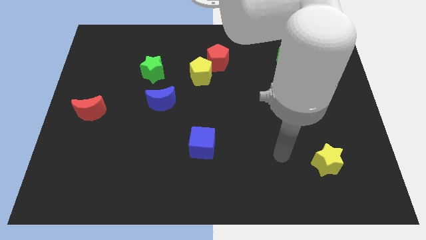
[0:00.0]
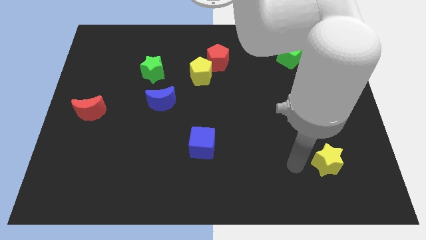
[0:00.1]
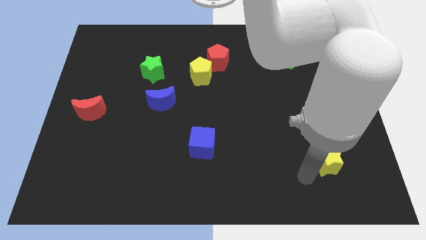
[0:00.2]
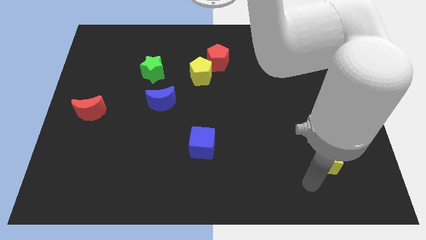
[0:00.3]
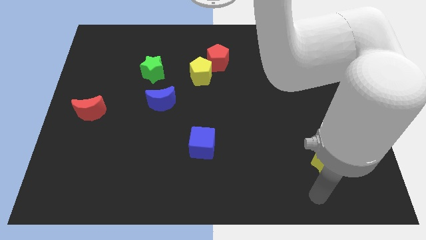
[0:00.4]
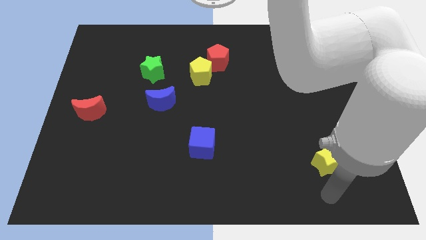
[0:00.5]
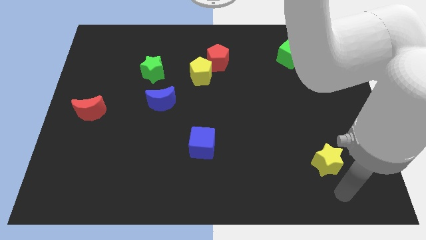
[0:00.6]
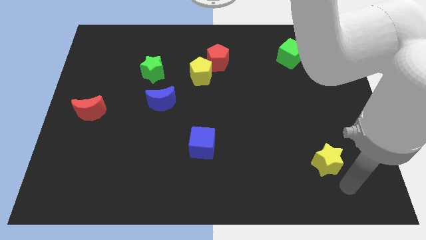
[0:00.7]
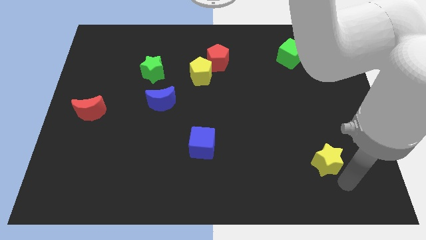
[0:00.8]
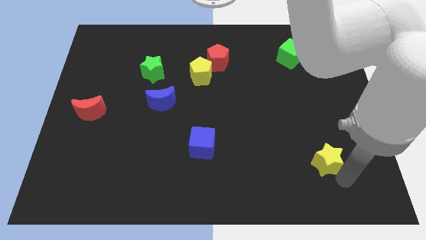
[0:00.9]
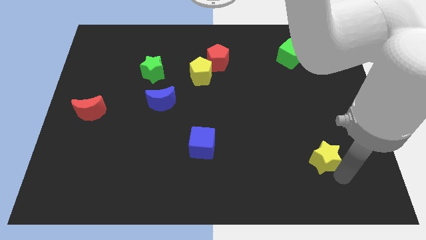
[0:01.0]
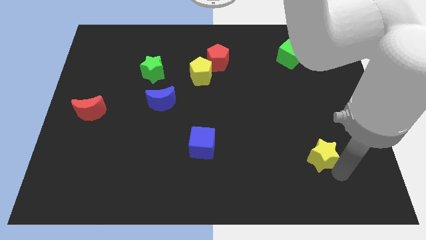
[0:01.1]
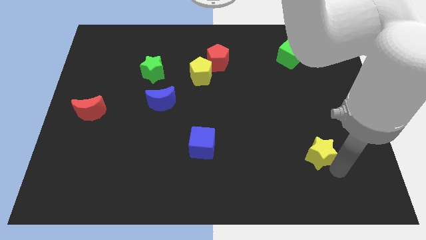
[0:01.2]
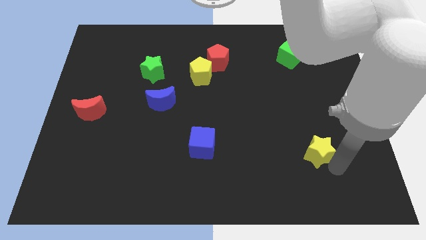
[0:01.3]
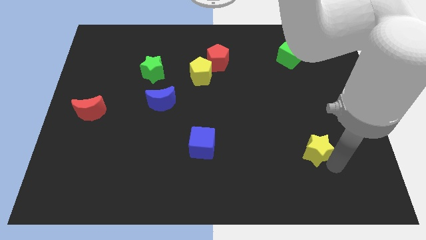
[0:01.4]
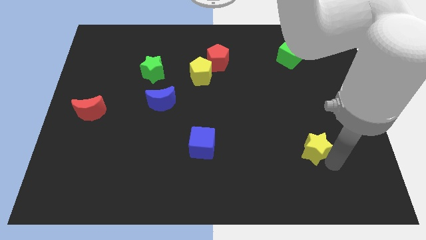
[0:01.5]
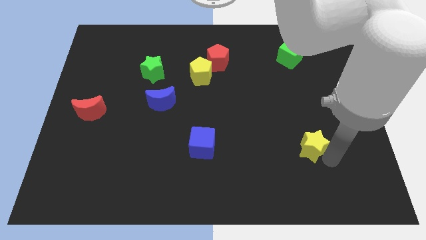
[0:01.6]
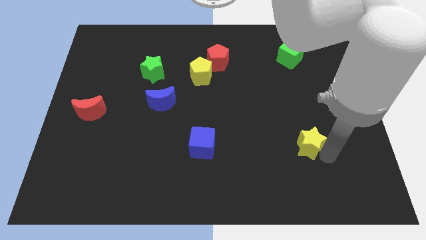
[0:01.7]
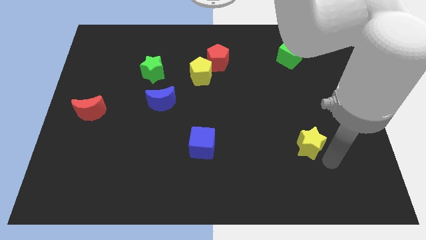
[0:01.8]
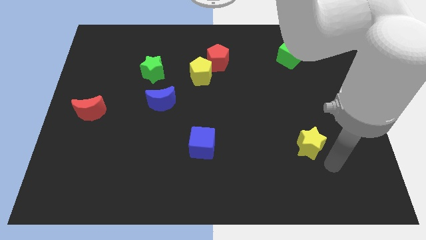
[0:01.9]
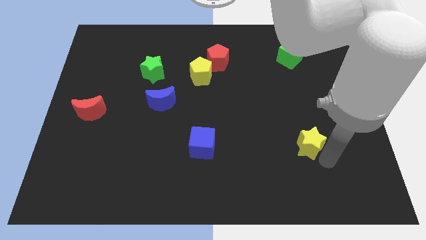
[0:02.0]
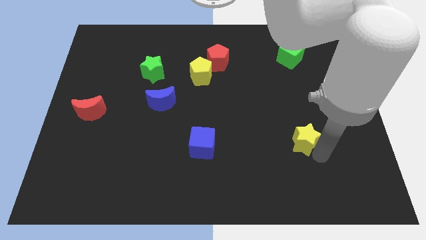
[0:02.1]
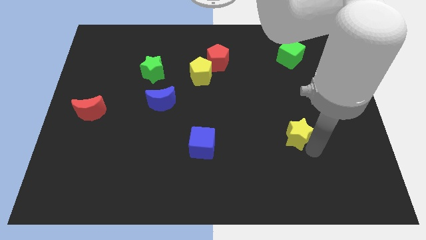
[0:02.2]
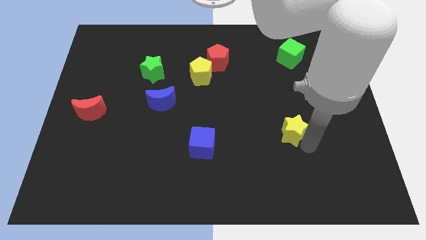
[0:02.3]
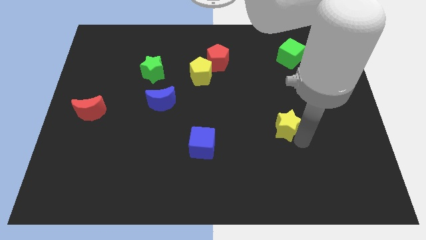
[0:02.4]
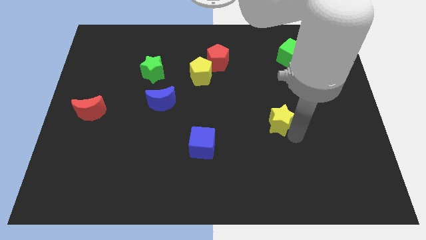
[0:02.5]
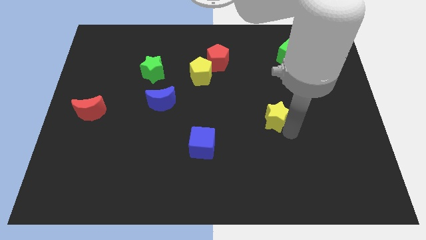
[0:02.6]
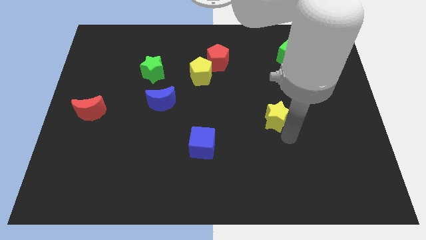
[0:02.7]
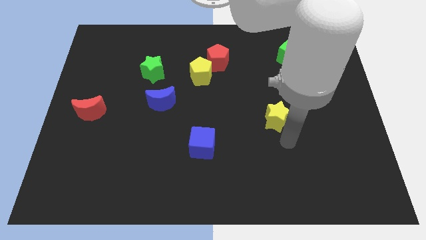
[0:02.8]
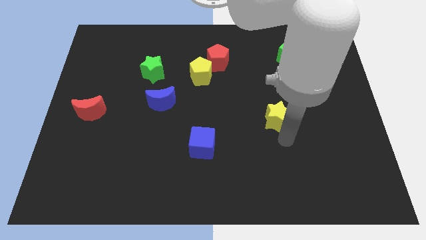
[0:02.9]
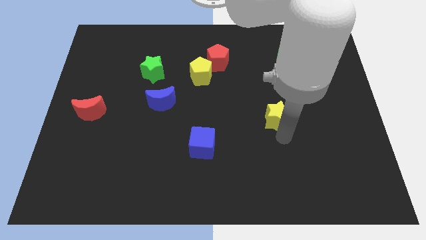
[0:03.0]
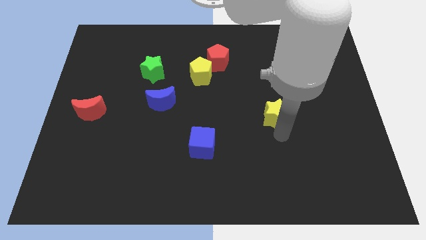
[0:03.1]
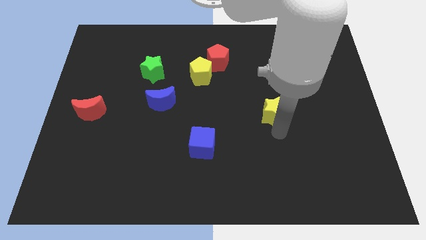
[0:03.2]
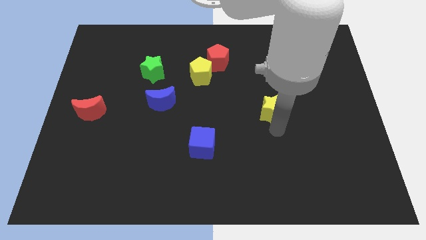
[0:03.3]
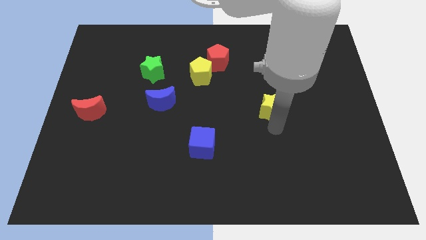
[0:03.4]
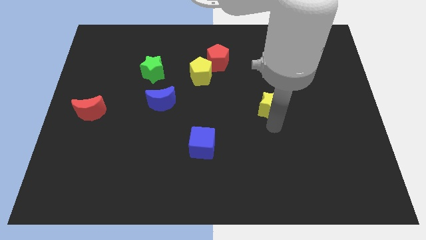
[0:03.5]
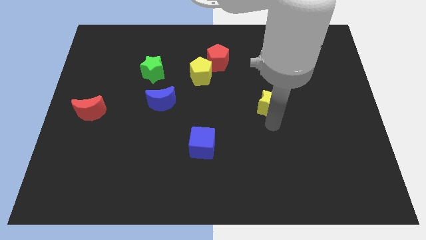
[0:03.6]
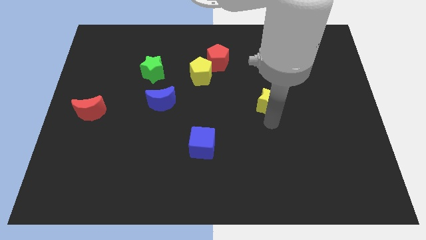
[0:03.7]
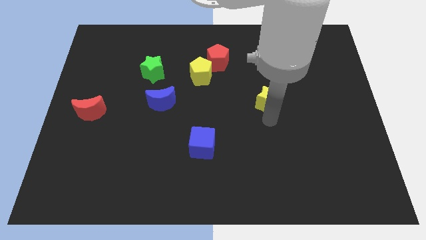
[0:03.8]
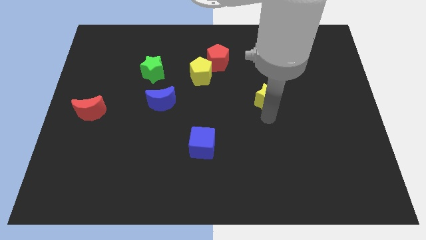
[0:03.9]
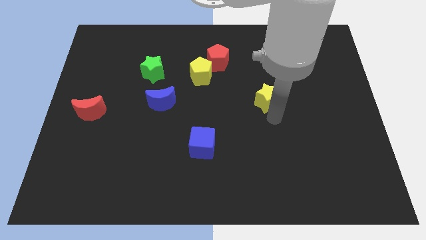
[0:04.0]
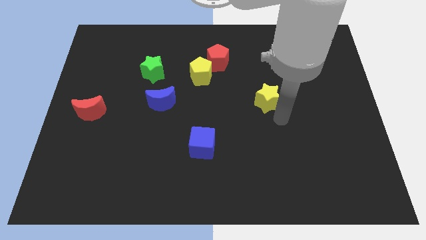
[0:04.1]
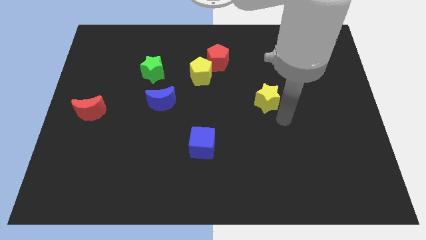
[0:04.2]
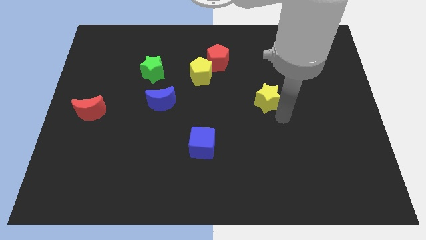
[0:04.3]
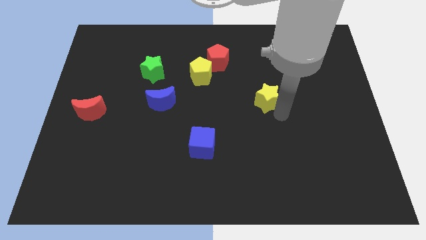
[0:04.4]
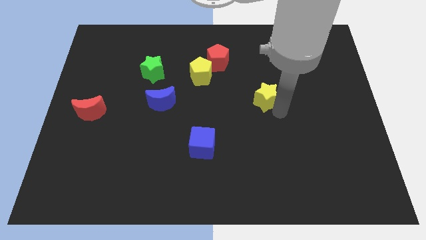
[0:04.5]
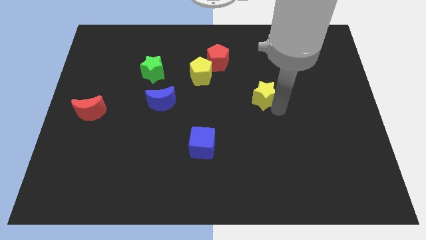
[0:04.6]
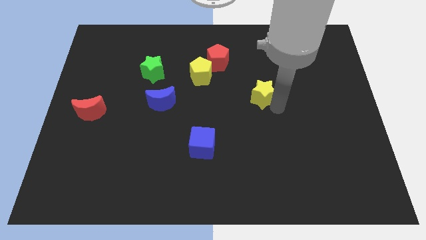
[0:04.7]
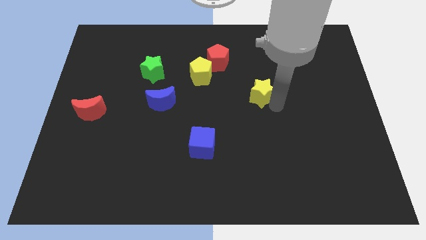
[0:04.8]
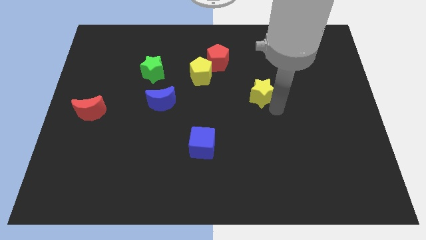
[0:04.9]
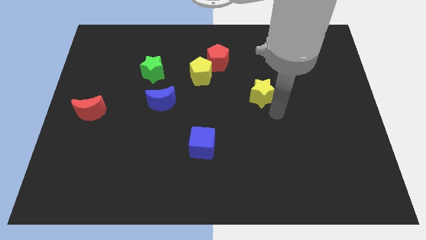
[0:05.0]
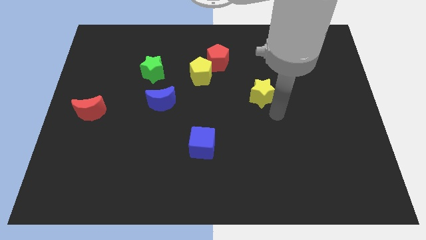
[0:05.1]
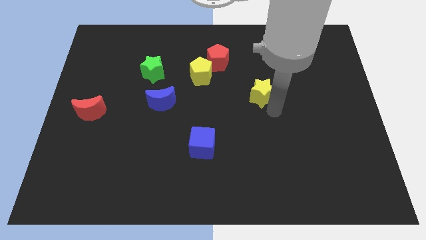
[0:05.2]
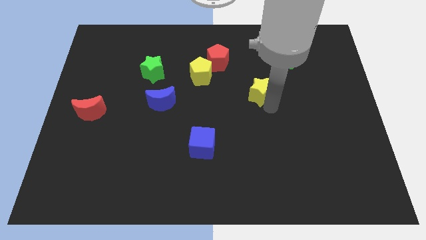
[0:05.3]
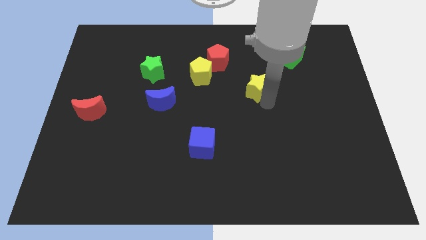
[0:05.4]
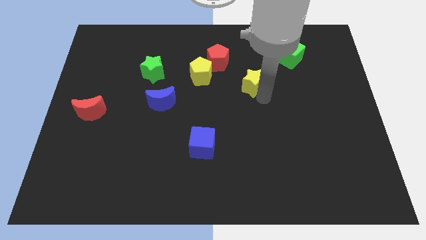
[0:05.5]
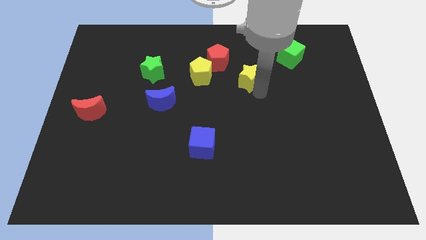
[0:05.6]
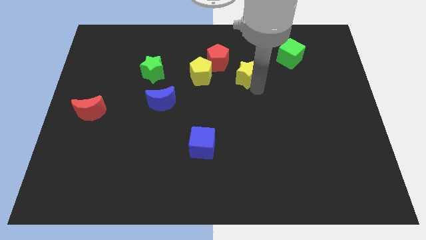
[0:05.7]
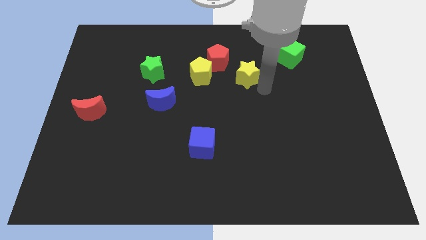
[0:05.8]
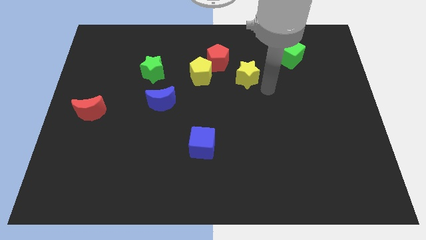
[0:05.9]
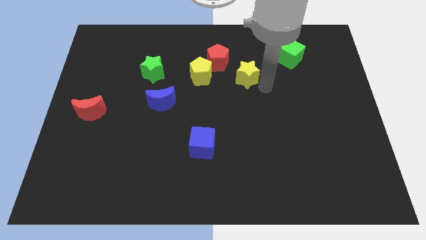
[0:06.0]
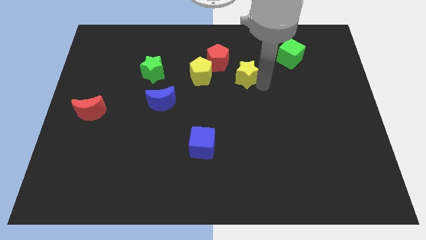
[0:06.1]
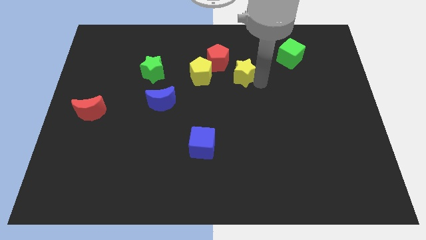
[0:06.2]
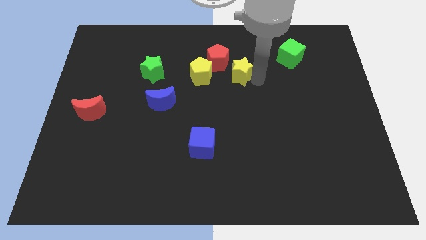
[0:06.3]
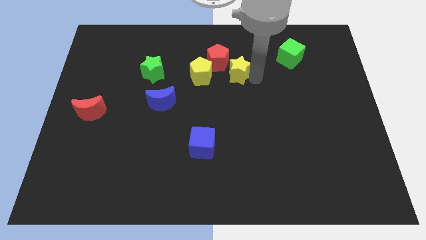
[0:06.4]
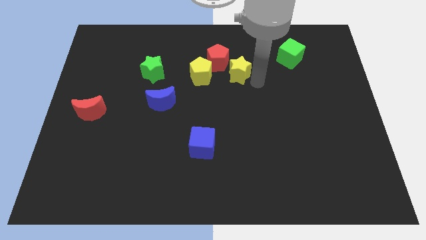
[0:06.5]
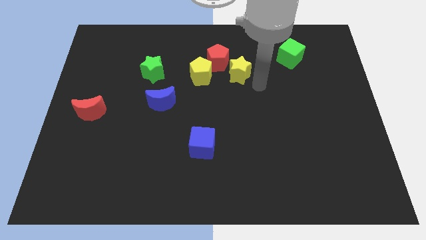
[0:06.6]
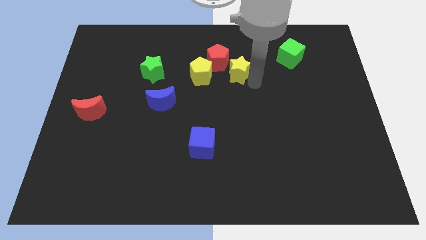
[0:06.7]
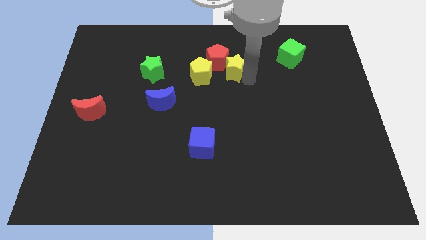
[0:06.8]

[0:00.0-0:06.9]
push the yellow star to the red pentagon

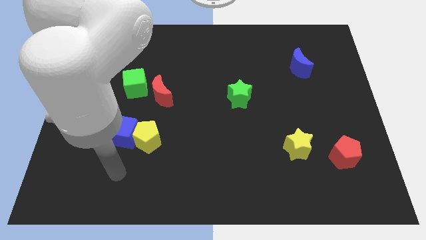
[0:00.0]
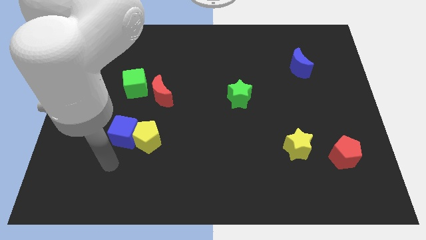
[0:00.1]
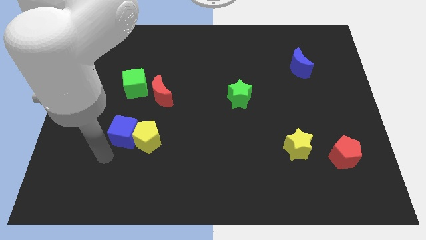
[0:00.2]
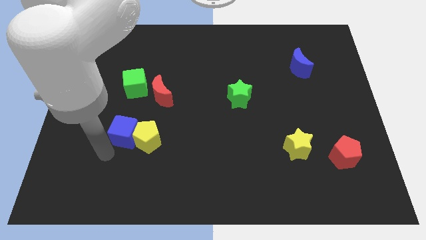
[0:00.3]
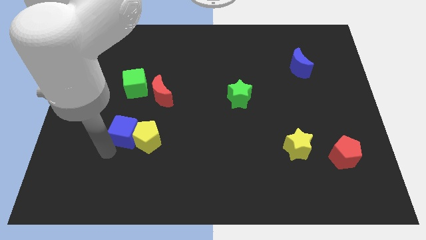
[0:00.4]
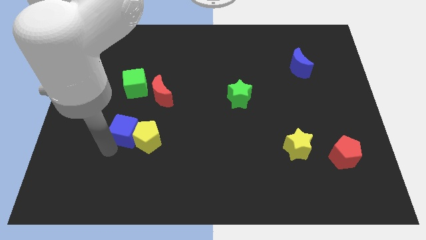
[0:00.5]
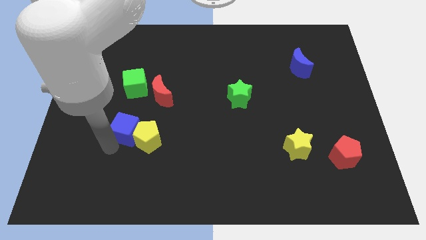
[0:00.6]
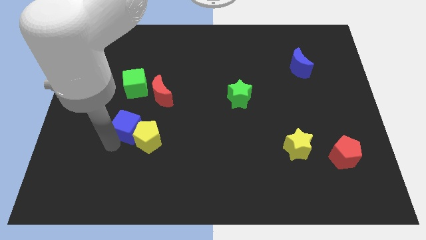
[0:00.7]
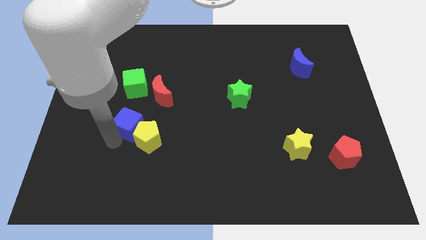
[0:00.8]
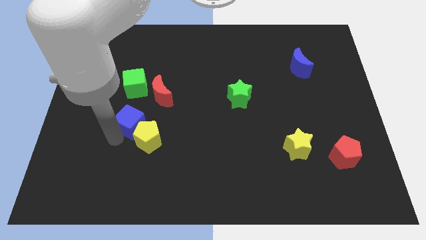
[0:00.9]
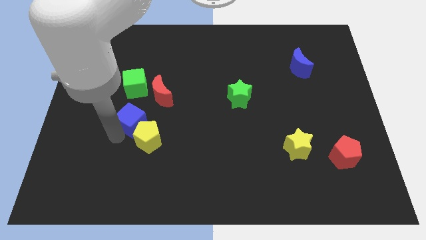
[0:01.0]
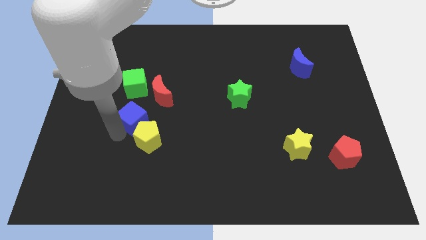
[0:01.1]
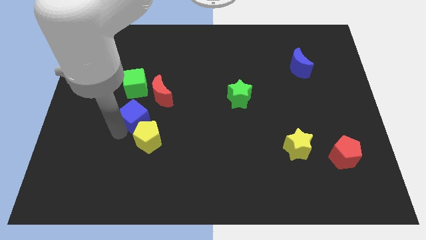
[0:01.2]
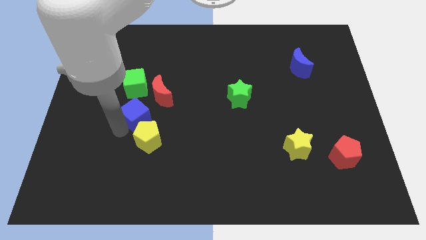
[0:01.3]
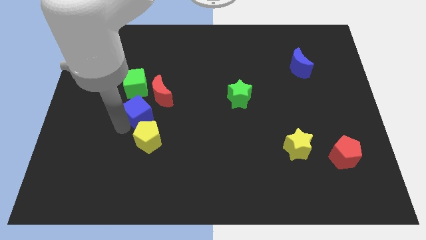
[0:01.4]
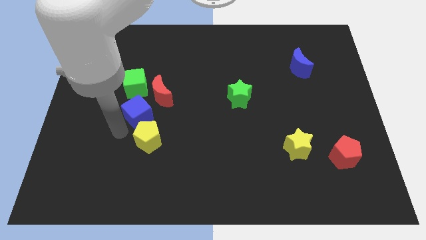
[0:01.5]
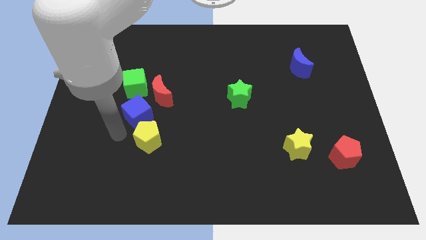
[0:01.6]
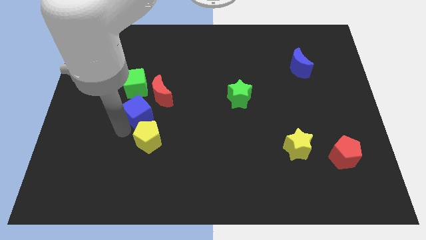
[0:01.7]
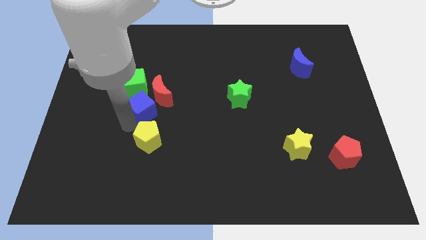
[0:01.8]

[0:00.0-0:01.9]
slide the blue cube towards the red moon
